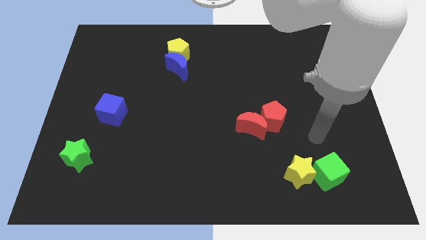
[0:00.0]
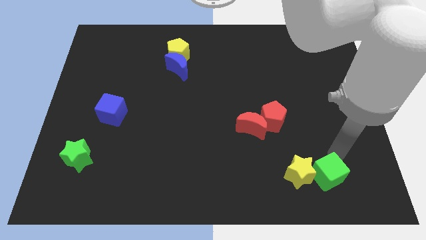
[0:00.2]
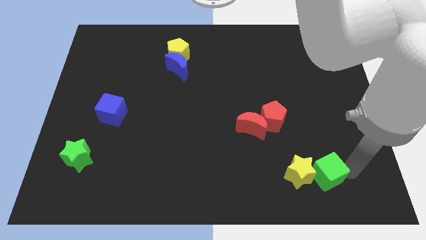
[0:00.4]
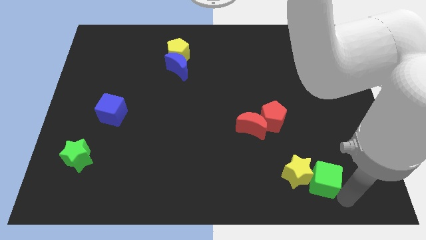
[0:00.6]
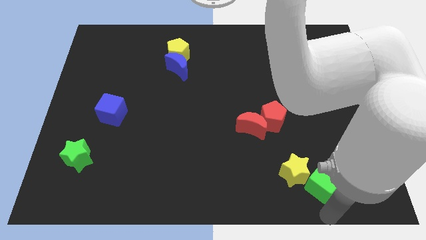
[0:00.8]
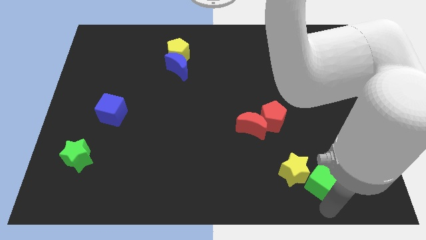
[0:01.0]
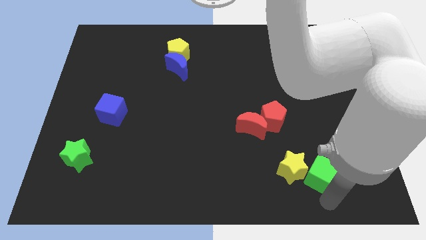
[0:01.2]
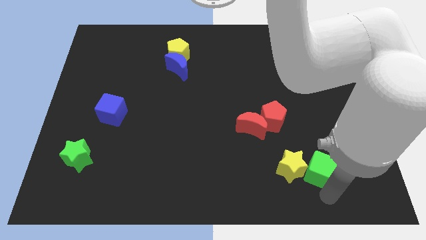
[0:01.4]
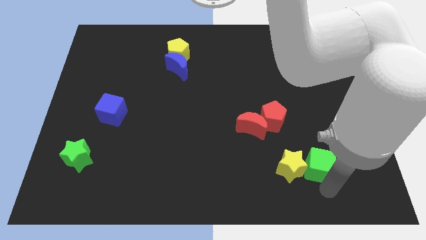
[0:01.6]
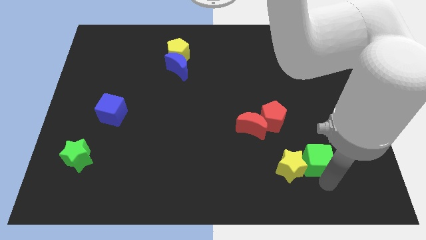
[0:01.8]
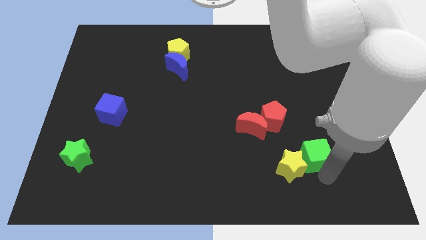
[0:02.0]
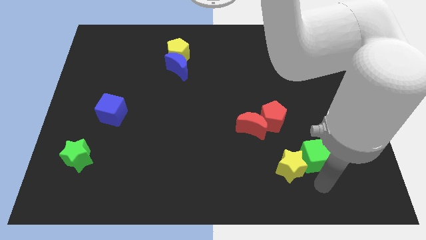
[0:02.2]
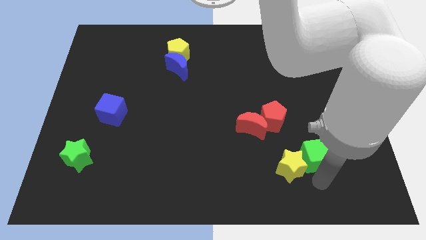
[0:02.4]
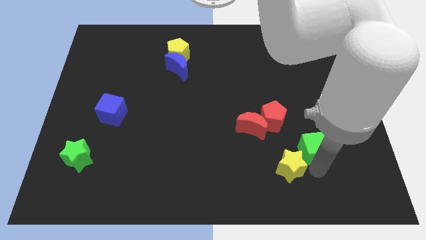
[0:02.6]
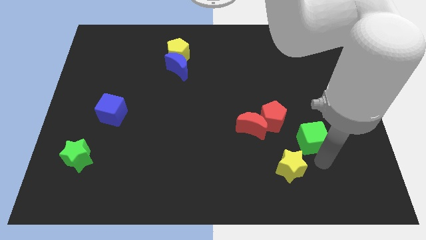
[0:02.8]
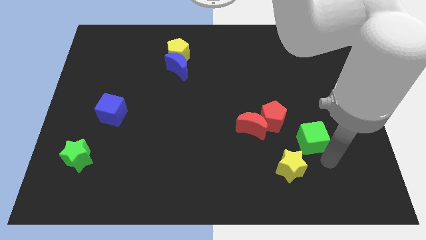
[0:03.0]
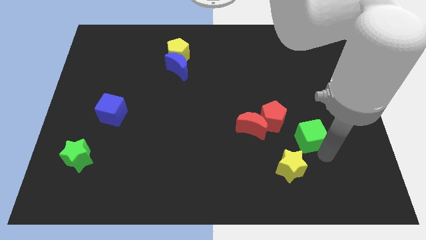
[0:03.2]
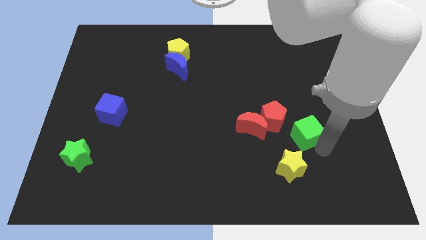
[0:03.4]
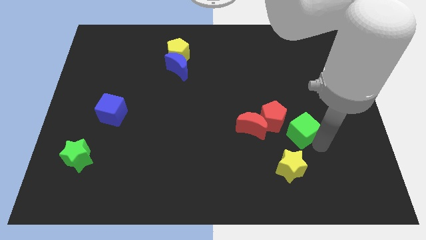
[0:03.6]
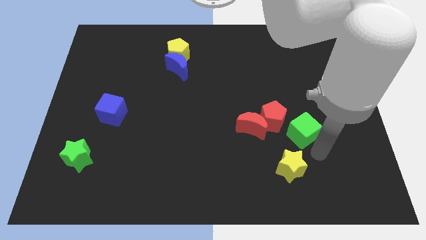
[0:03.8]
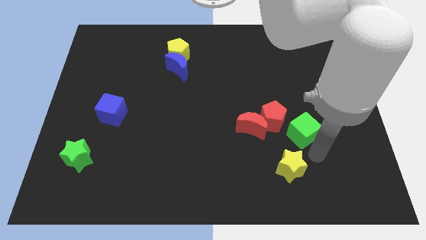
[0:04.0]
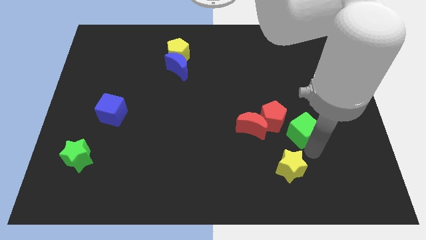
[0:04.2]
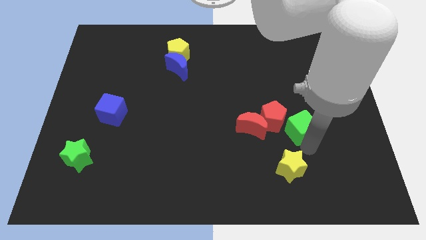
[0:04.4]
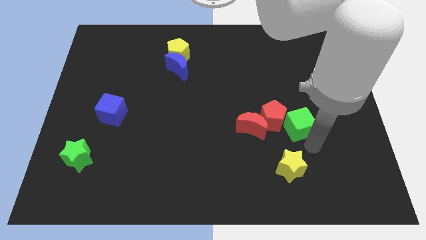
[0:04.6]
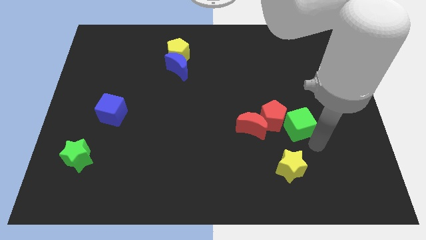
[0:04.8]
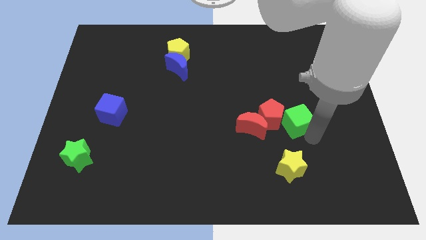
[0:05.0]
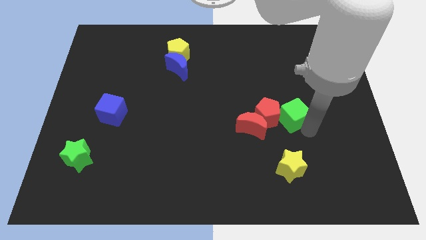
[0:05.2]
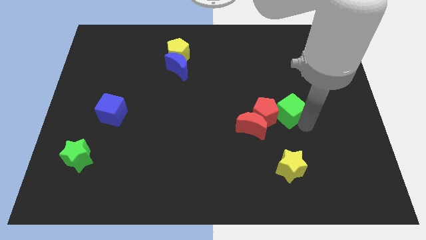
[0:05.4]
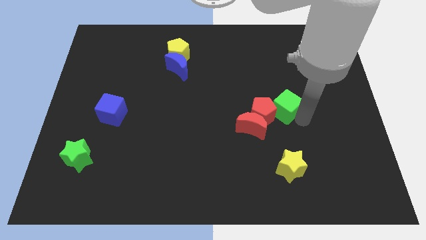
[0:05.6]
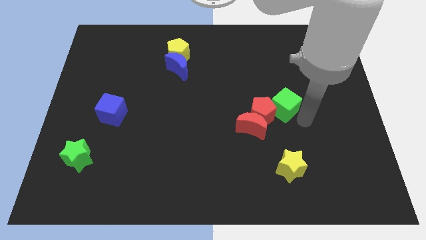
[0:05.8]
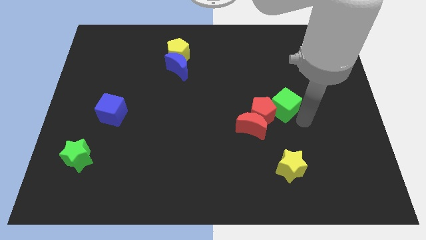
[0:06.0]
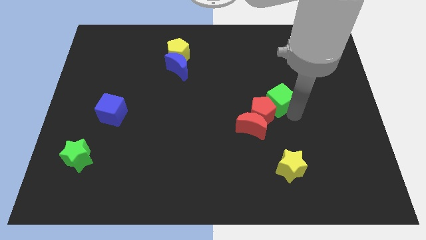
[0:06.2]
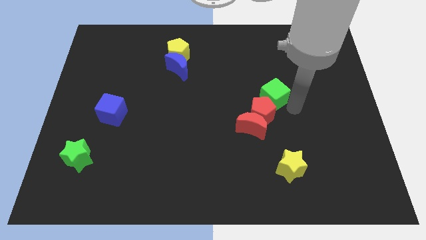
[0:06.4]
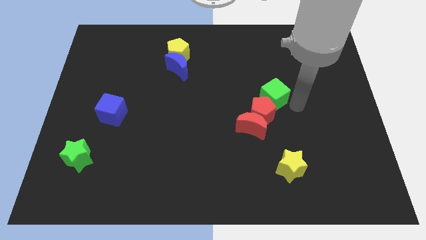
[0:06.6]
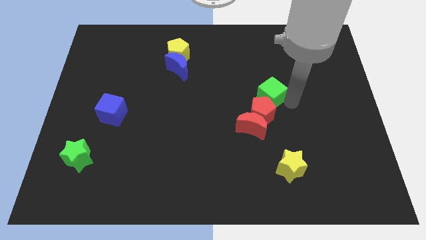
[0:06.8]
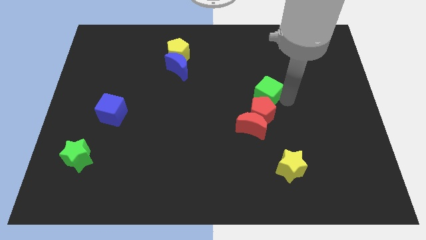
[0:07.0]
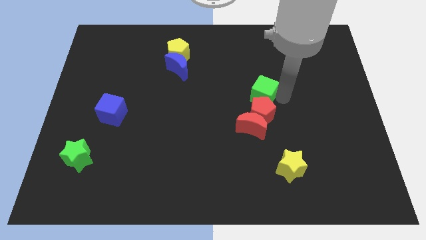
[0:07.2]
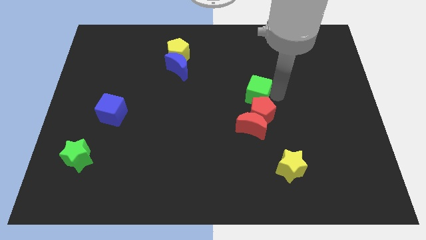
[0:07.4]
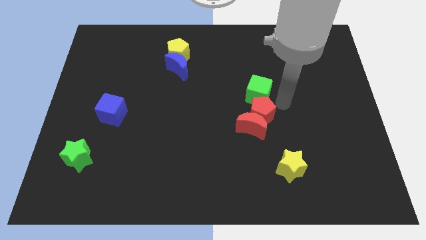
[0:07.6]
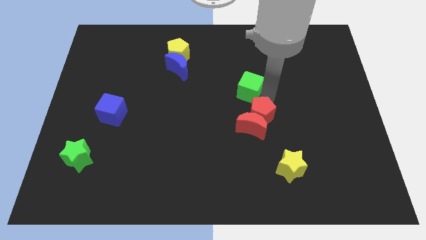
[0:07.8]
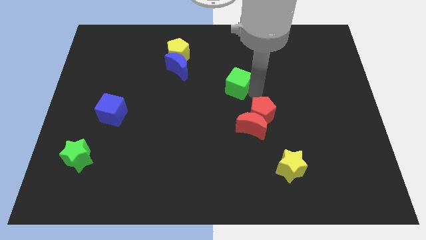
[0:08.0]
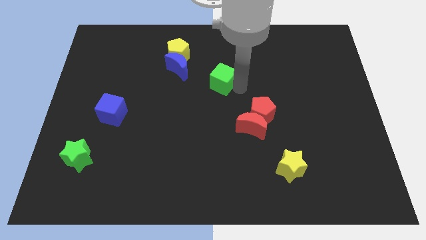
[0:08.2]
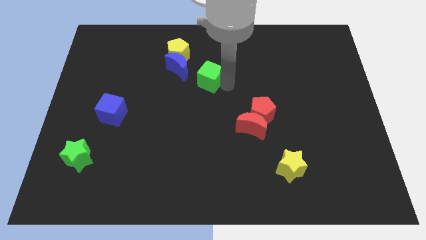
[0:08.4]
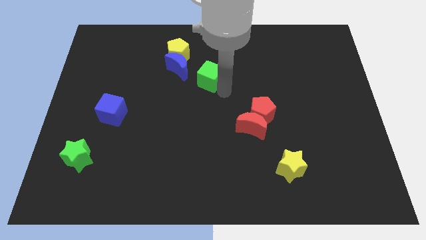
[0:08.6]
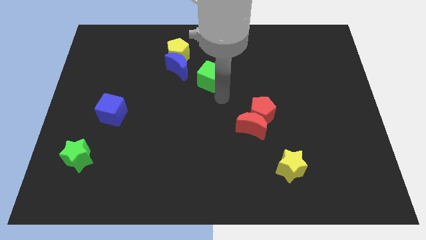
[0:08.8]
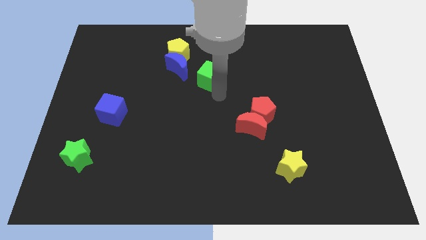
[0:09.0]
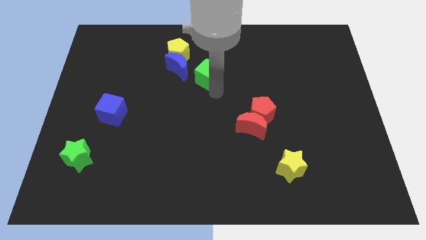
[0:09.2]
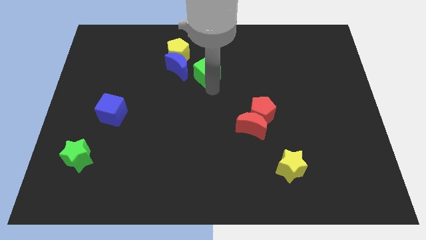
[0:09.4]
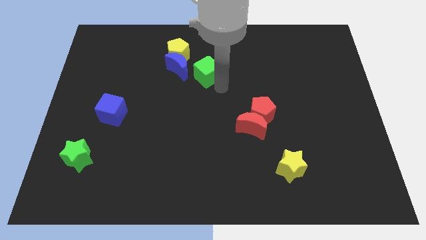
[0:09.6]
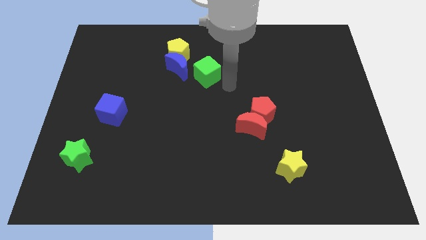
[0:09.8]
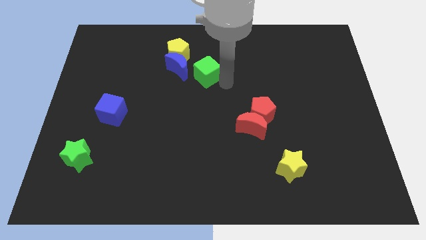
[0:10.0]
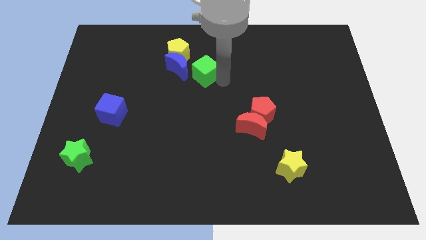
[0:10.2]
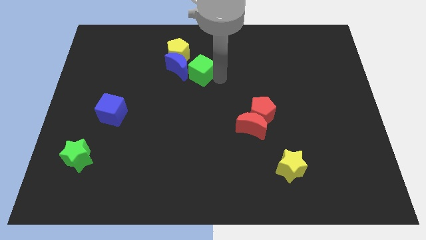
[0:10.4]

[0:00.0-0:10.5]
slide the green cube next to the blue moon

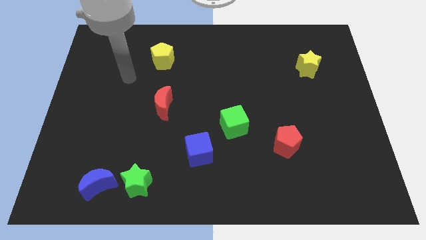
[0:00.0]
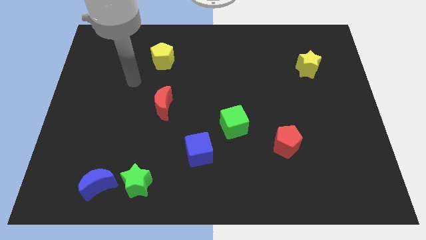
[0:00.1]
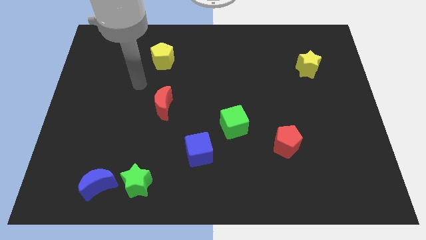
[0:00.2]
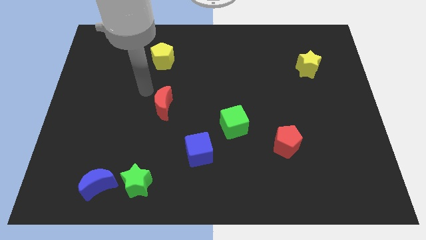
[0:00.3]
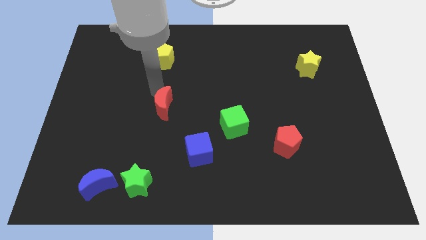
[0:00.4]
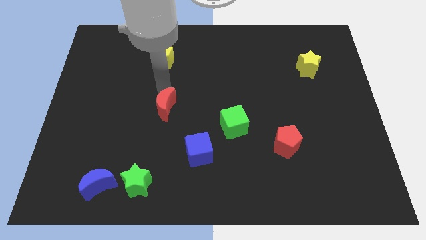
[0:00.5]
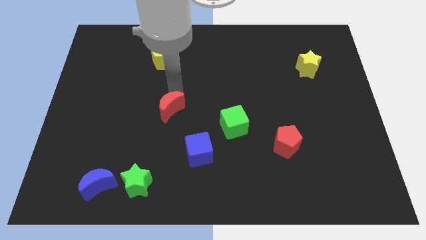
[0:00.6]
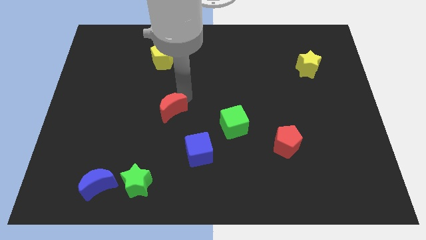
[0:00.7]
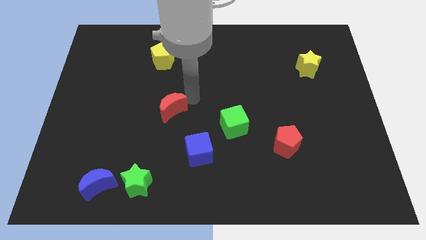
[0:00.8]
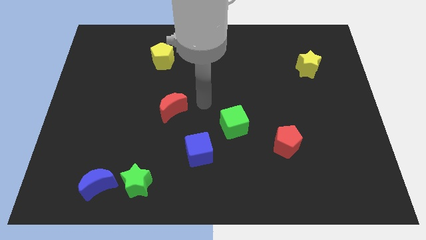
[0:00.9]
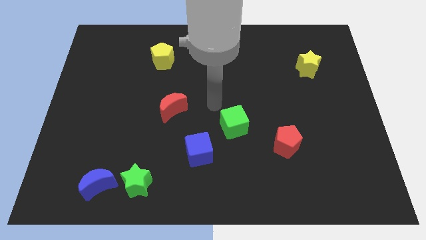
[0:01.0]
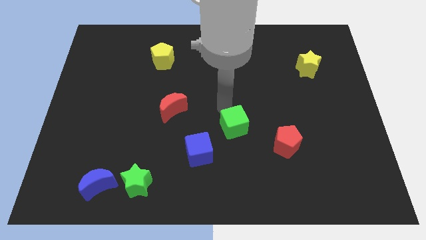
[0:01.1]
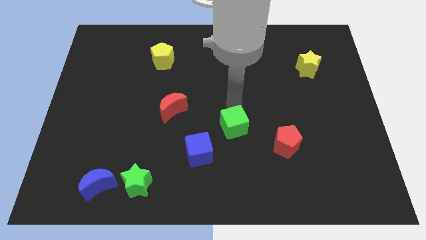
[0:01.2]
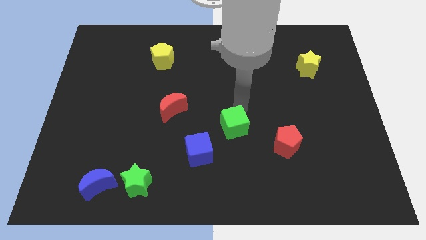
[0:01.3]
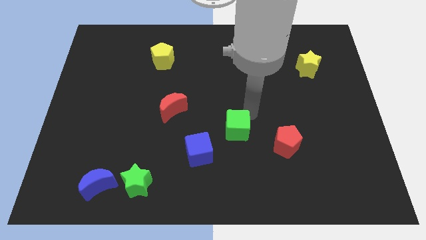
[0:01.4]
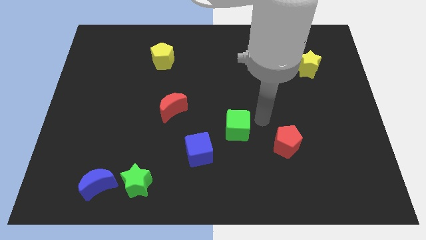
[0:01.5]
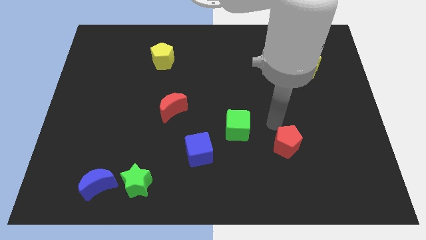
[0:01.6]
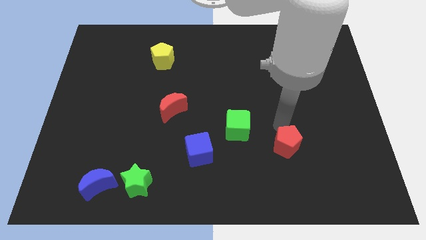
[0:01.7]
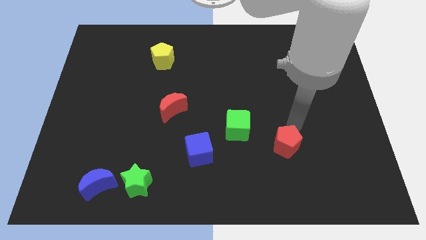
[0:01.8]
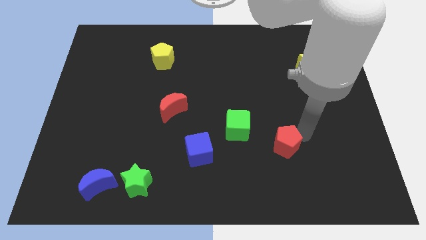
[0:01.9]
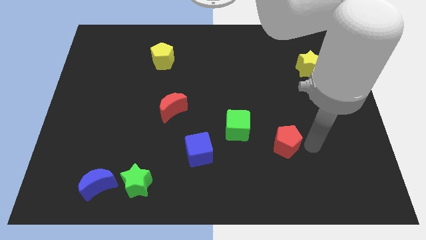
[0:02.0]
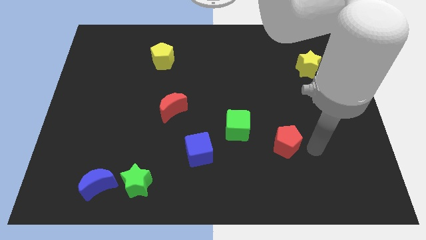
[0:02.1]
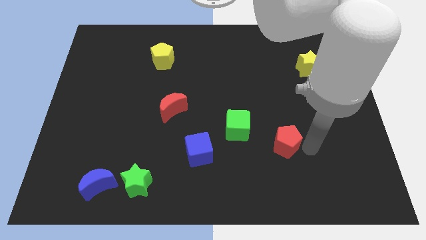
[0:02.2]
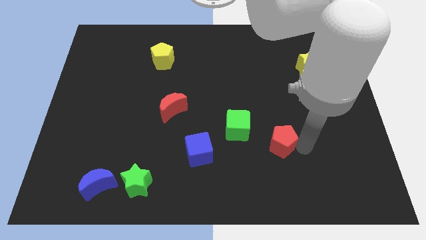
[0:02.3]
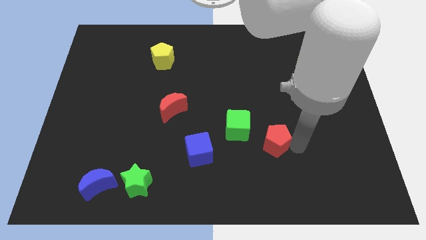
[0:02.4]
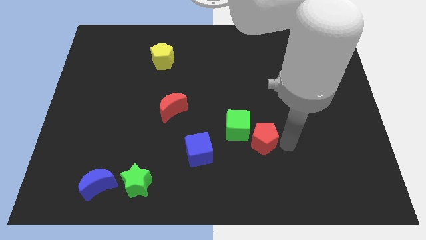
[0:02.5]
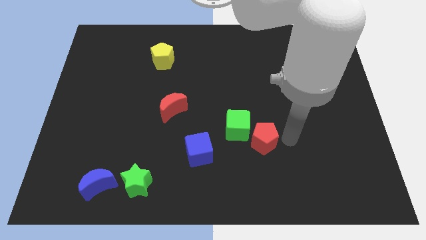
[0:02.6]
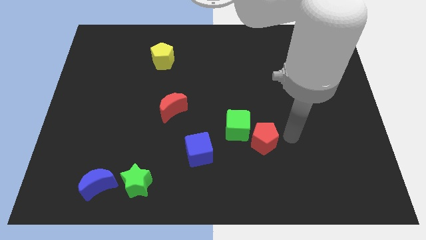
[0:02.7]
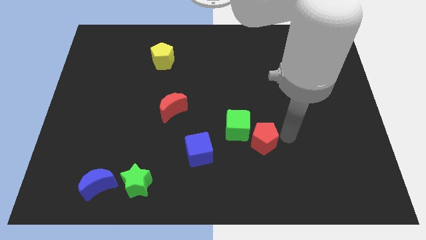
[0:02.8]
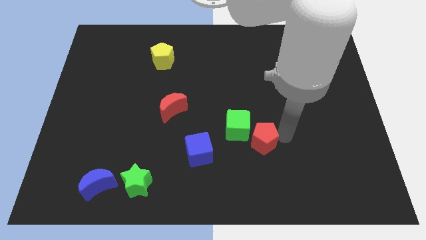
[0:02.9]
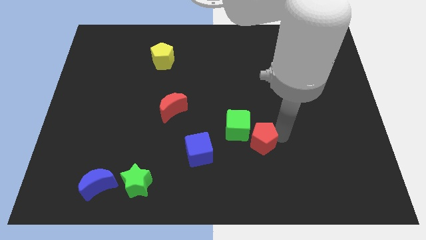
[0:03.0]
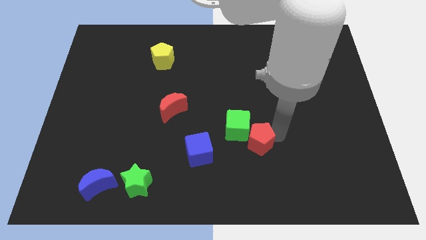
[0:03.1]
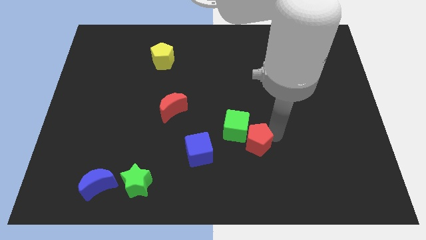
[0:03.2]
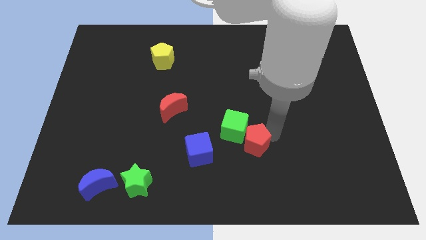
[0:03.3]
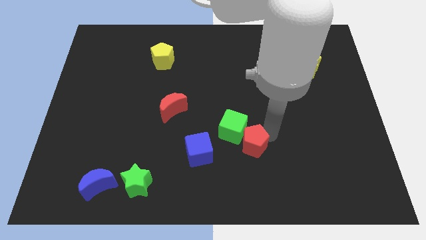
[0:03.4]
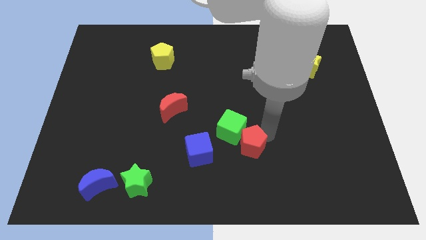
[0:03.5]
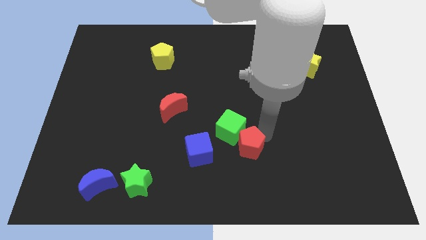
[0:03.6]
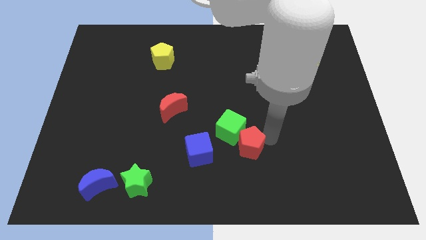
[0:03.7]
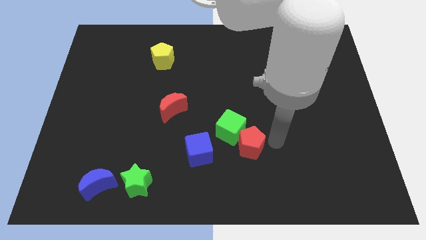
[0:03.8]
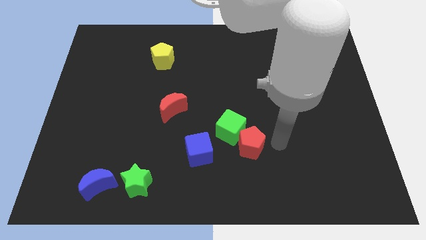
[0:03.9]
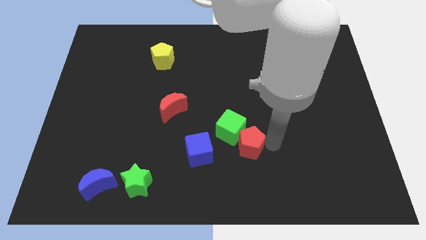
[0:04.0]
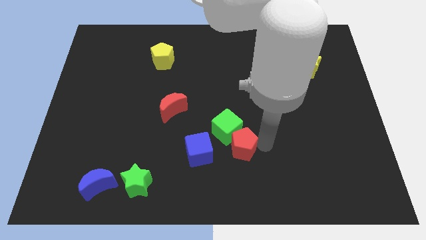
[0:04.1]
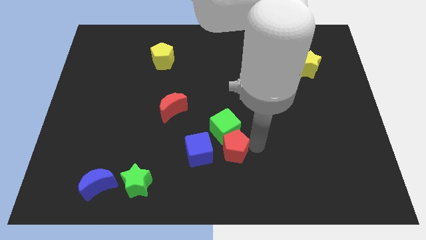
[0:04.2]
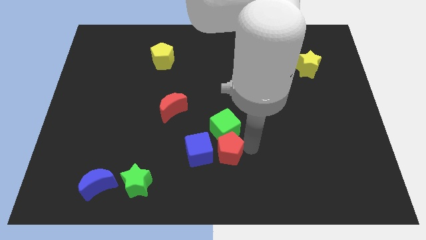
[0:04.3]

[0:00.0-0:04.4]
slide the red pentagon next to the blue cube
